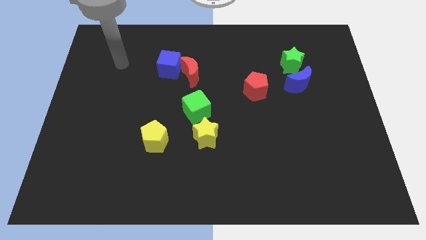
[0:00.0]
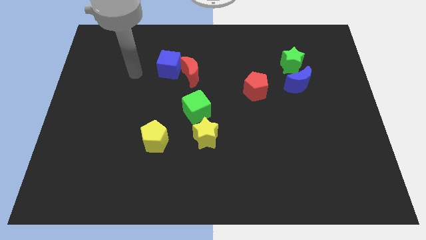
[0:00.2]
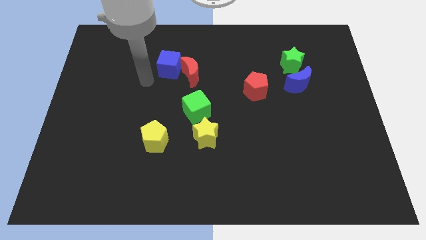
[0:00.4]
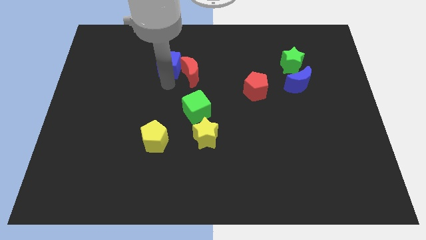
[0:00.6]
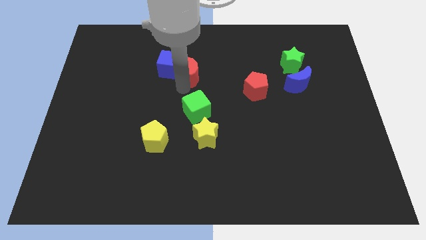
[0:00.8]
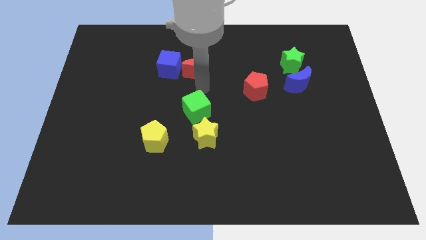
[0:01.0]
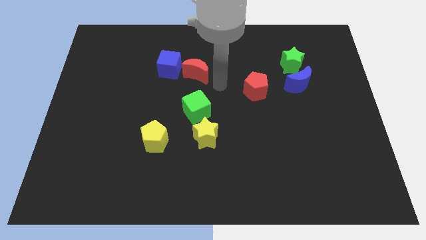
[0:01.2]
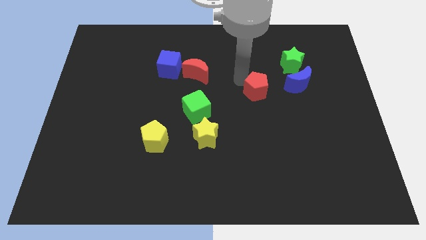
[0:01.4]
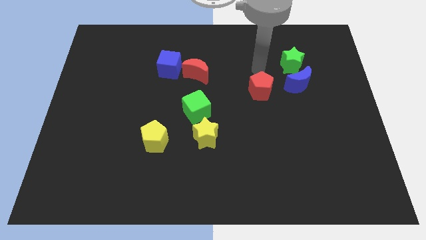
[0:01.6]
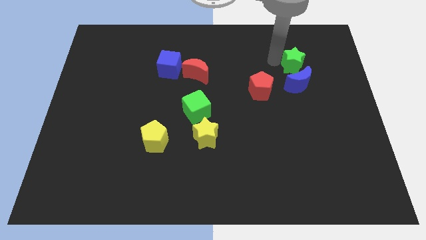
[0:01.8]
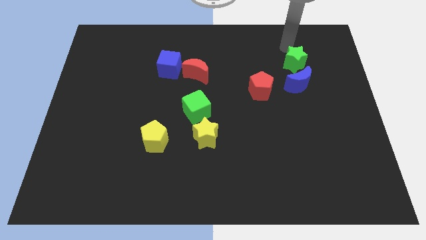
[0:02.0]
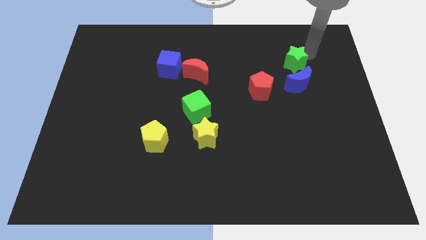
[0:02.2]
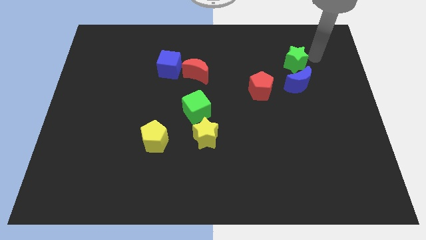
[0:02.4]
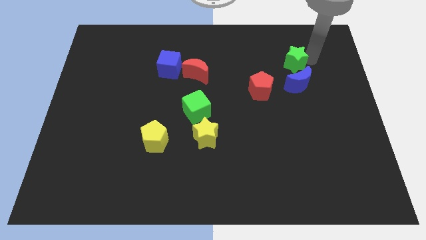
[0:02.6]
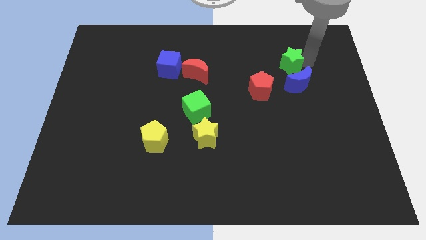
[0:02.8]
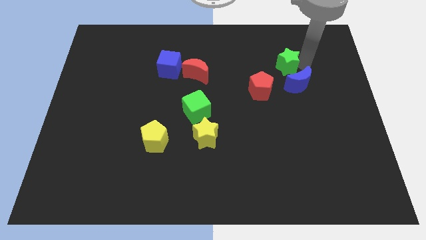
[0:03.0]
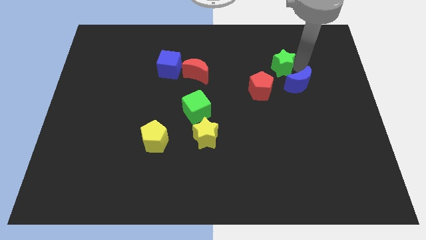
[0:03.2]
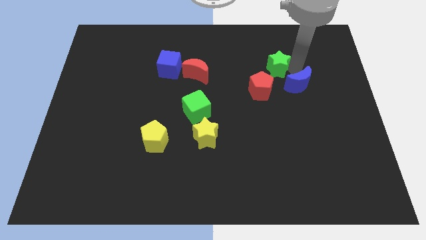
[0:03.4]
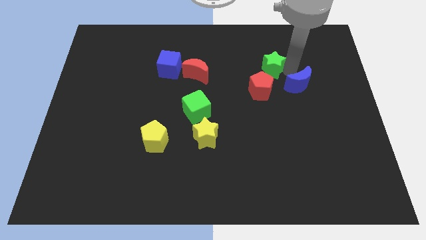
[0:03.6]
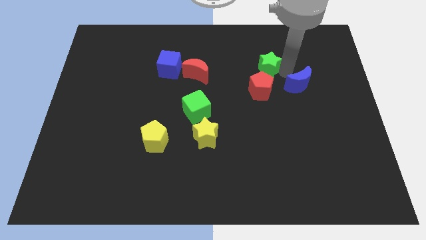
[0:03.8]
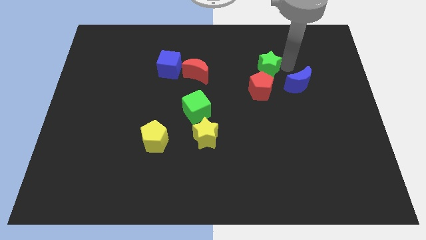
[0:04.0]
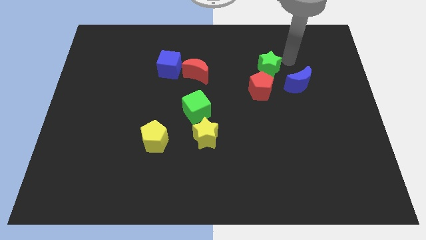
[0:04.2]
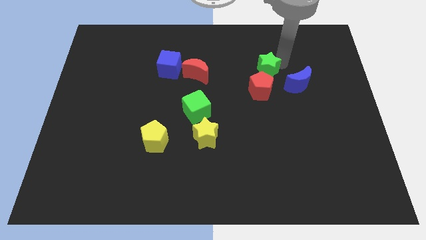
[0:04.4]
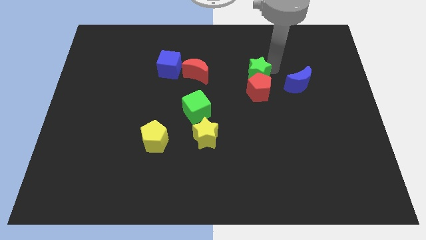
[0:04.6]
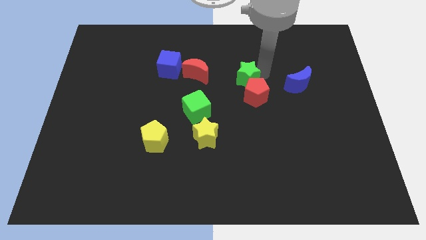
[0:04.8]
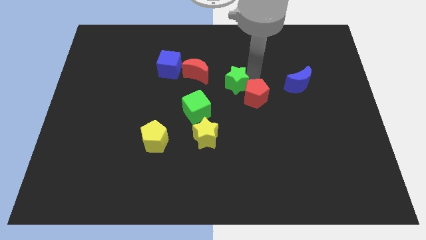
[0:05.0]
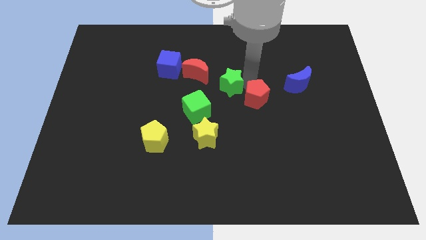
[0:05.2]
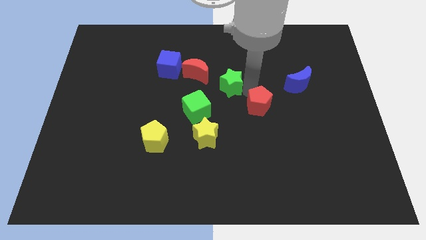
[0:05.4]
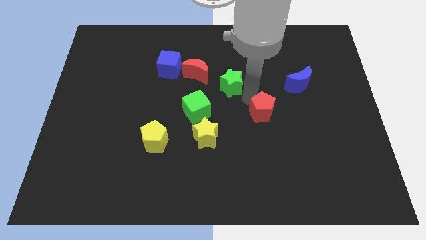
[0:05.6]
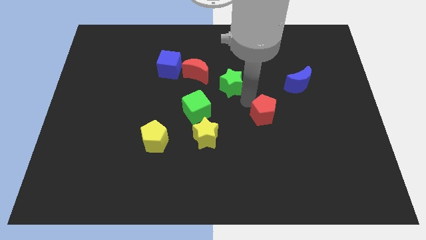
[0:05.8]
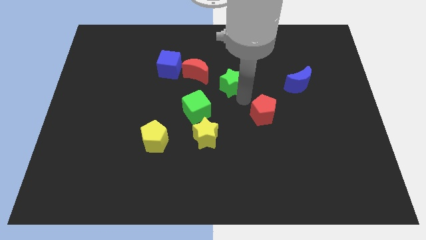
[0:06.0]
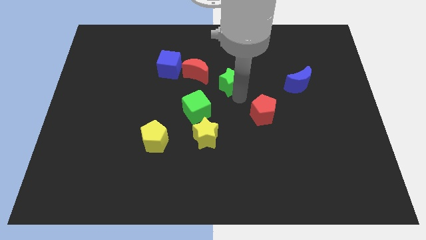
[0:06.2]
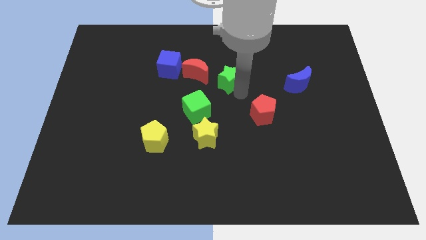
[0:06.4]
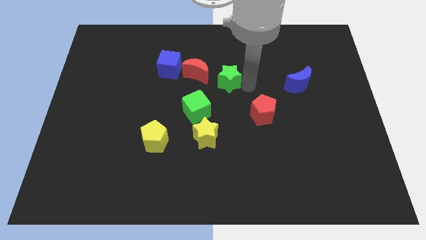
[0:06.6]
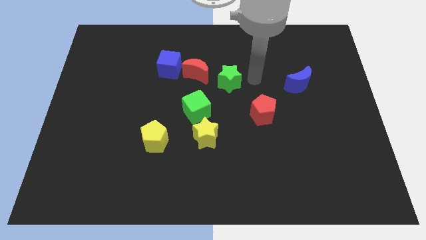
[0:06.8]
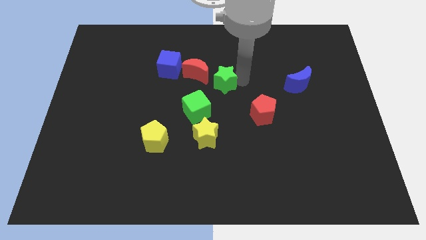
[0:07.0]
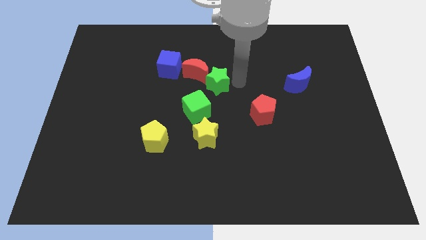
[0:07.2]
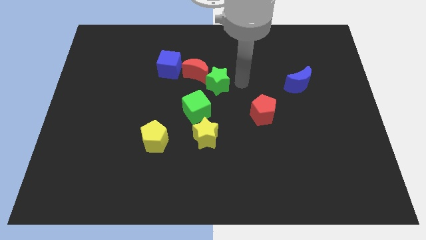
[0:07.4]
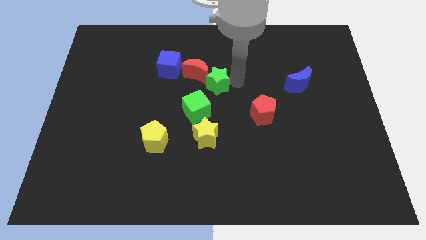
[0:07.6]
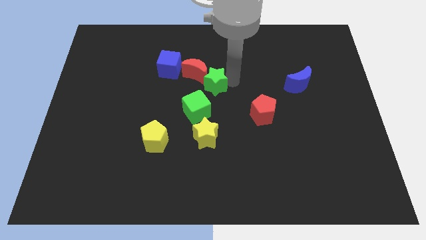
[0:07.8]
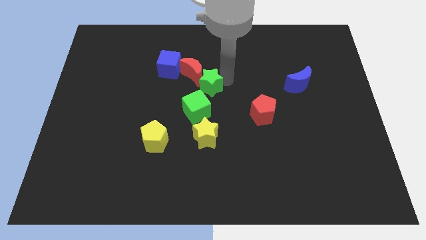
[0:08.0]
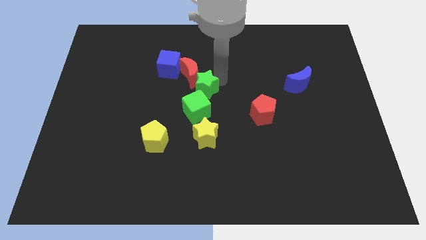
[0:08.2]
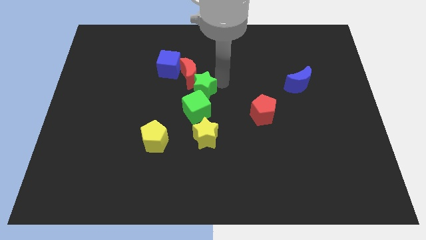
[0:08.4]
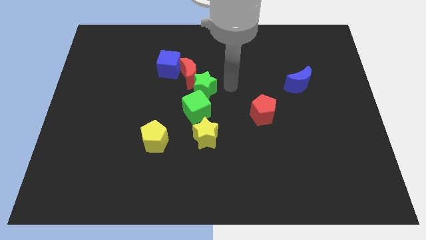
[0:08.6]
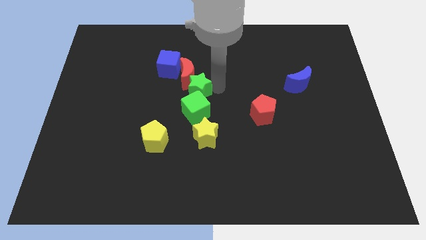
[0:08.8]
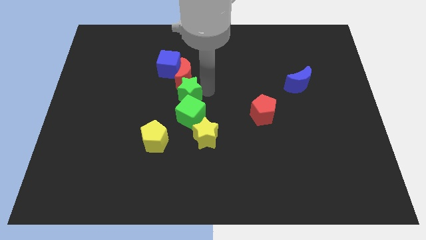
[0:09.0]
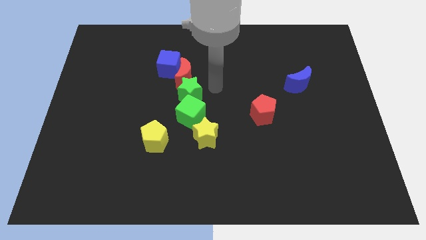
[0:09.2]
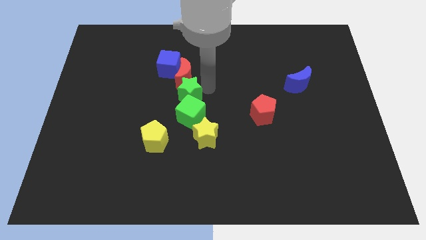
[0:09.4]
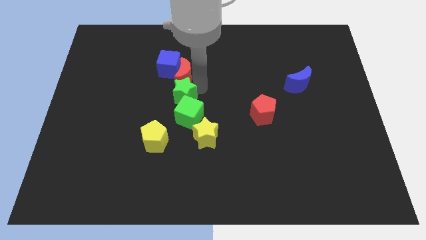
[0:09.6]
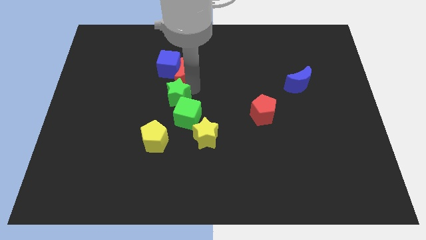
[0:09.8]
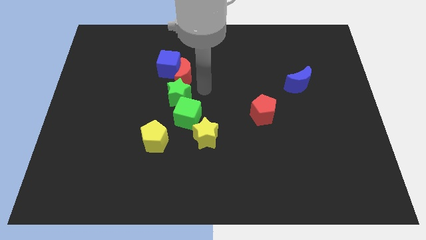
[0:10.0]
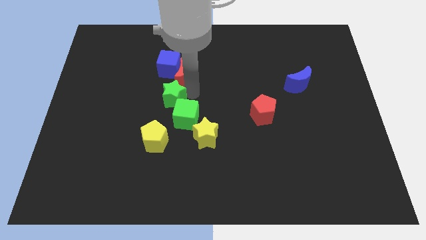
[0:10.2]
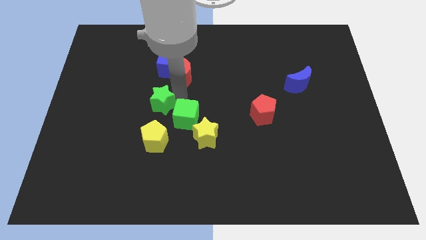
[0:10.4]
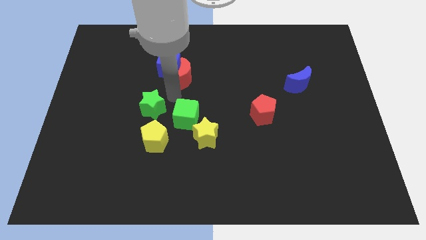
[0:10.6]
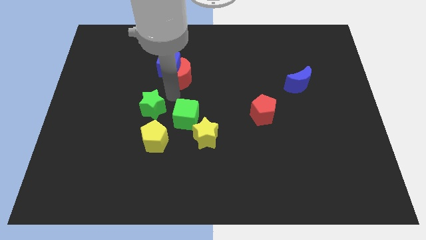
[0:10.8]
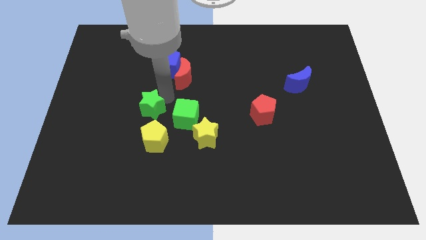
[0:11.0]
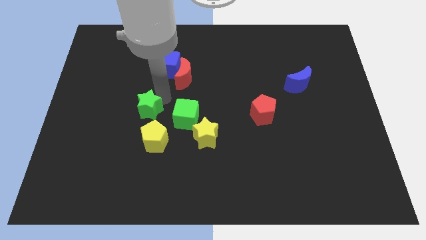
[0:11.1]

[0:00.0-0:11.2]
move the green star to the top left of the yellow pentagon

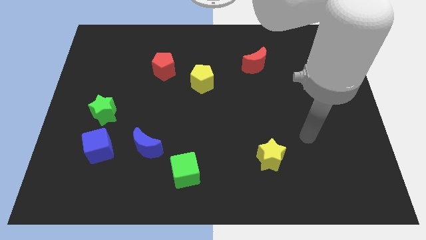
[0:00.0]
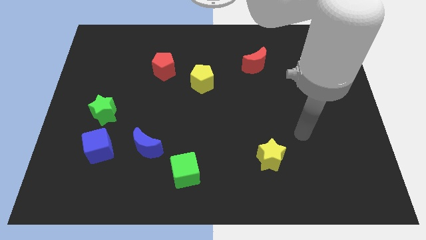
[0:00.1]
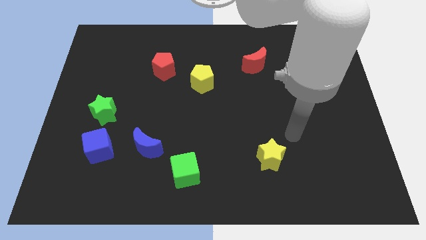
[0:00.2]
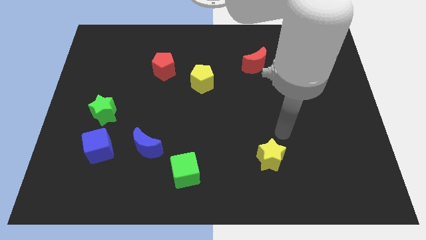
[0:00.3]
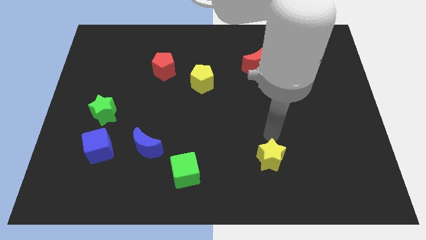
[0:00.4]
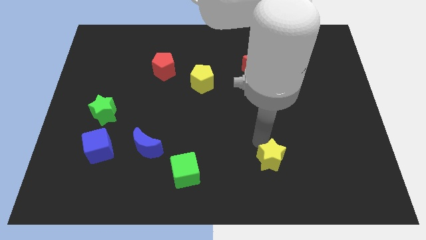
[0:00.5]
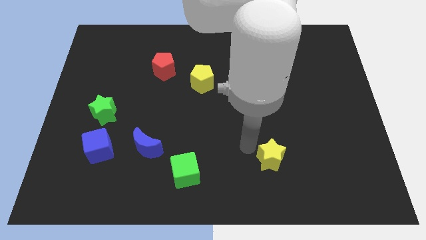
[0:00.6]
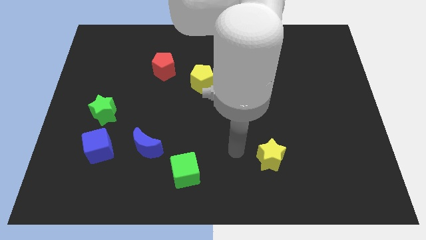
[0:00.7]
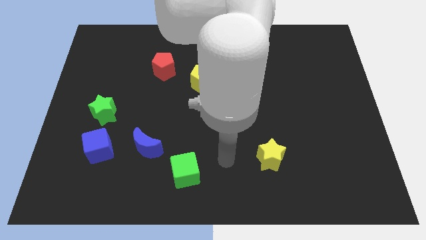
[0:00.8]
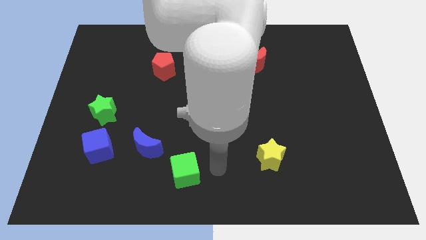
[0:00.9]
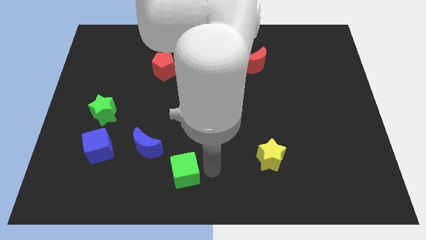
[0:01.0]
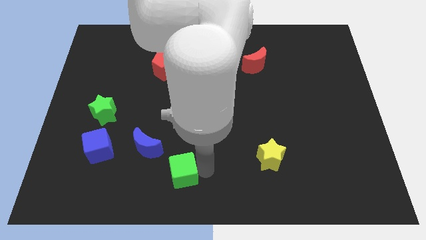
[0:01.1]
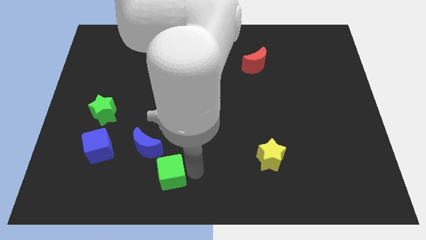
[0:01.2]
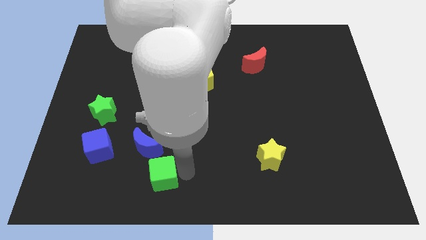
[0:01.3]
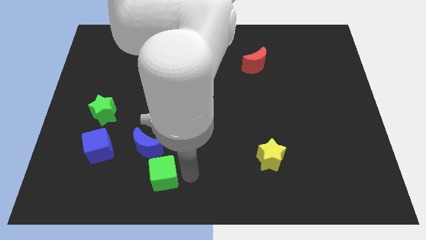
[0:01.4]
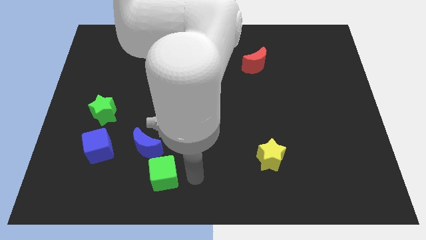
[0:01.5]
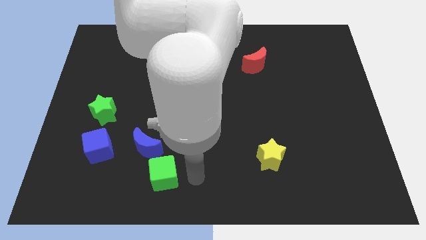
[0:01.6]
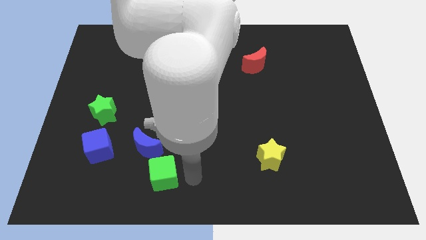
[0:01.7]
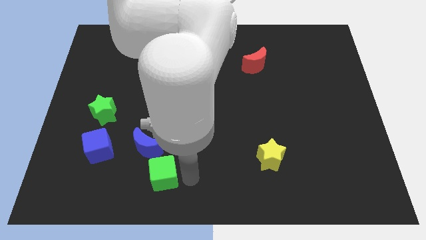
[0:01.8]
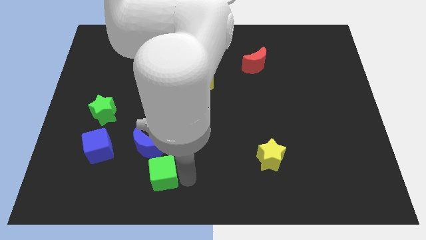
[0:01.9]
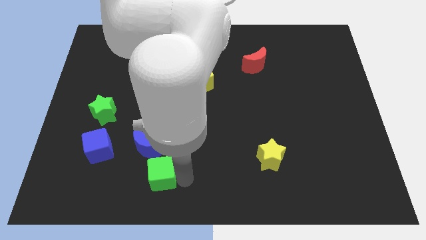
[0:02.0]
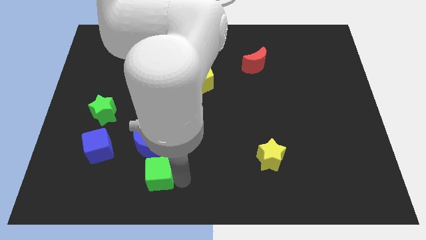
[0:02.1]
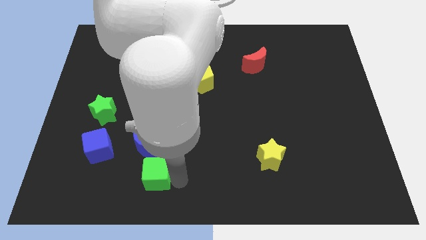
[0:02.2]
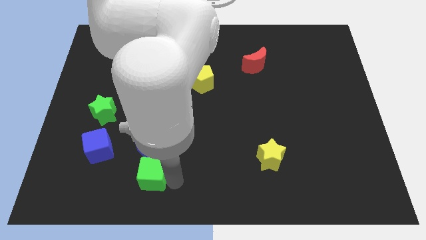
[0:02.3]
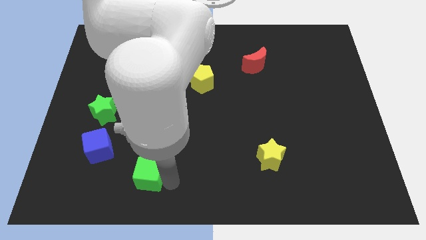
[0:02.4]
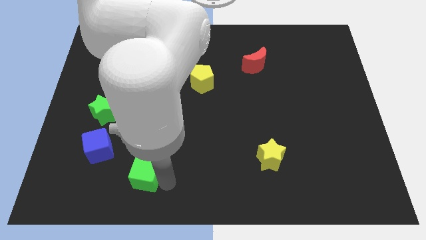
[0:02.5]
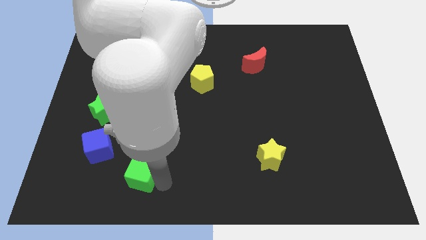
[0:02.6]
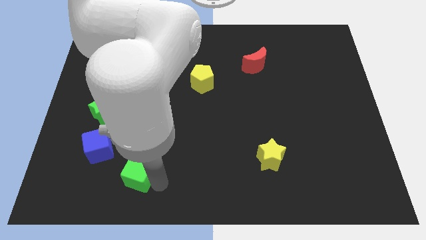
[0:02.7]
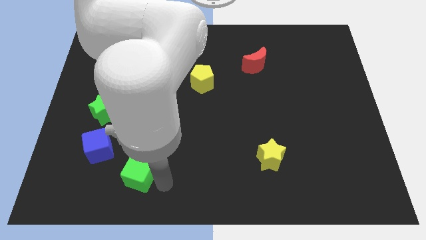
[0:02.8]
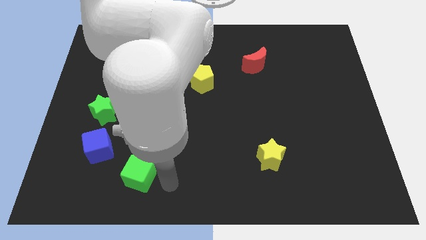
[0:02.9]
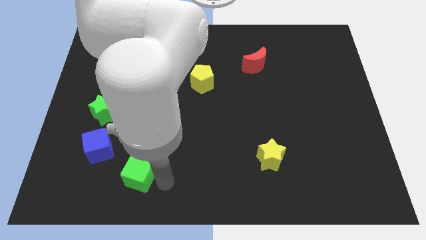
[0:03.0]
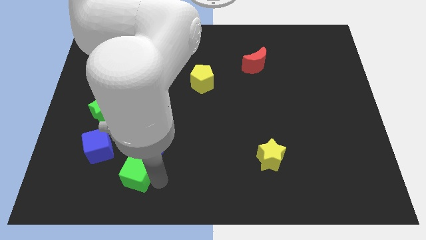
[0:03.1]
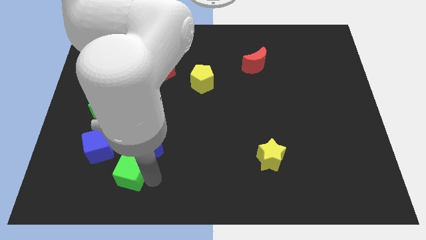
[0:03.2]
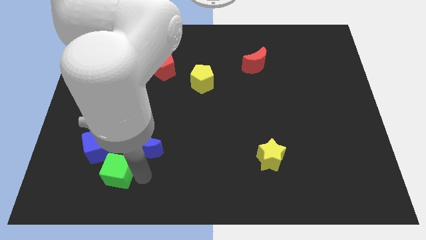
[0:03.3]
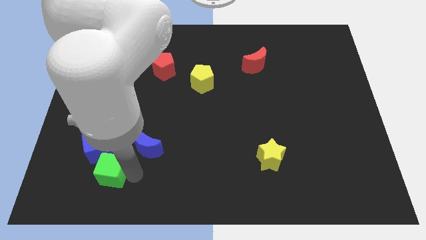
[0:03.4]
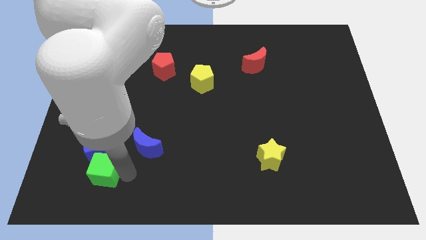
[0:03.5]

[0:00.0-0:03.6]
push the green cube to the bottom side of the green star
